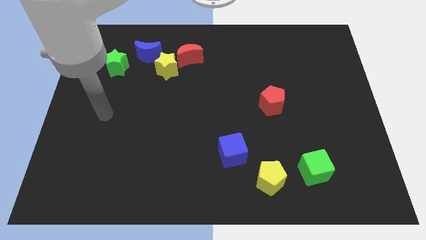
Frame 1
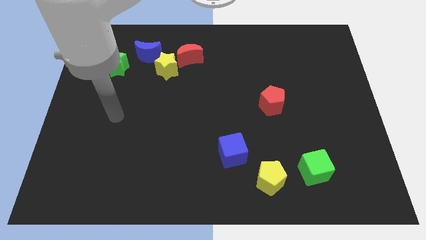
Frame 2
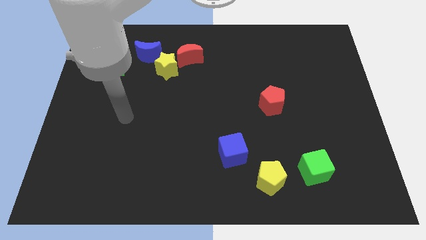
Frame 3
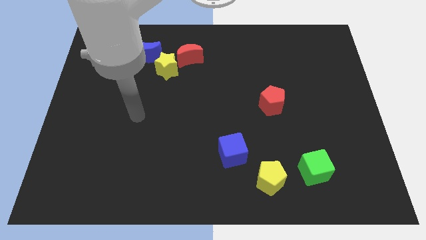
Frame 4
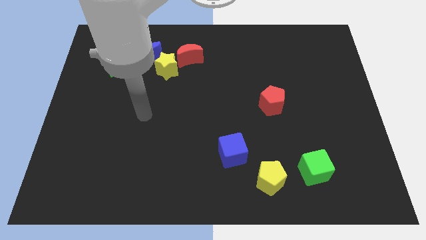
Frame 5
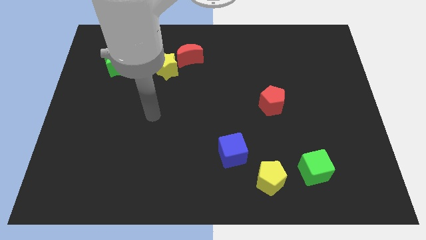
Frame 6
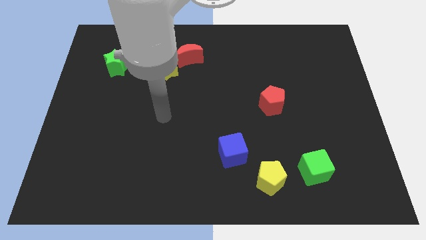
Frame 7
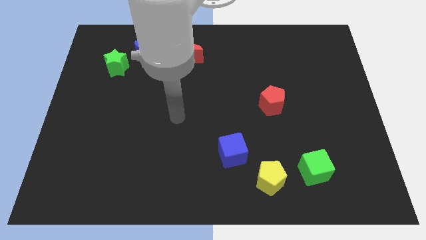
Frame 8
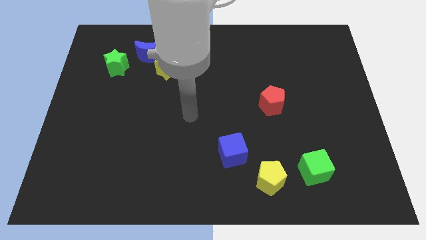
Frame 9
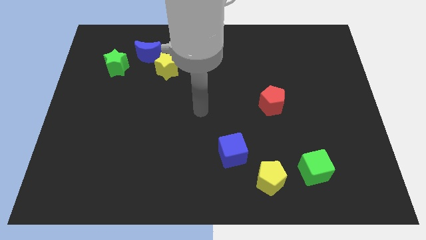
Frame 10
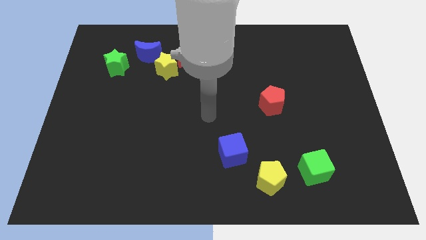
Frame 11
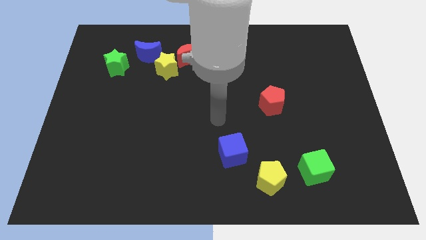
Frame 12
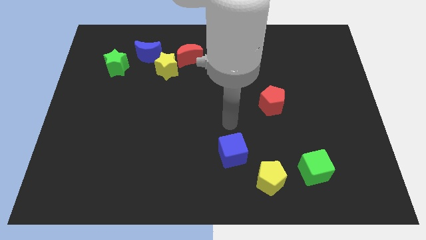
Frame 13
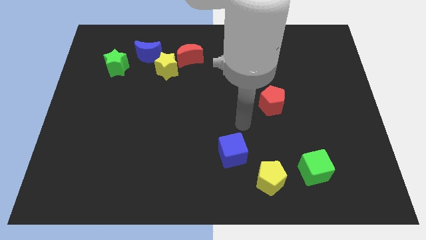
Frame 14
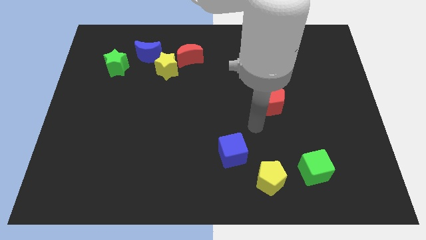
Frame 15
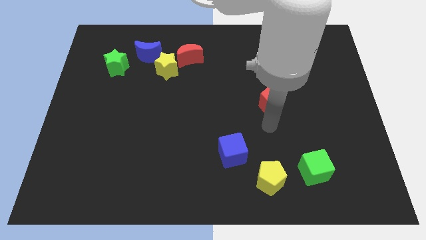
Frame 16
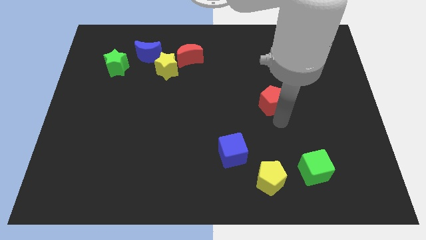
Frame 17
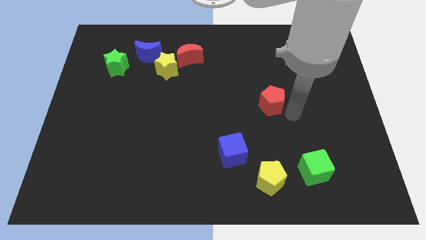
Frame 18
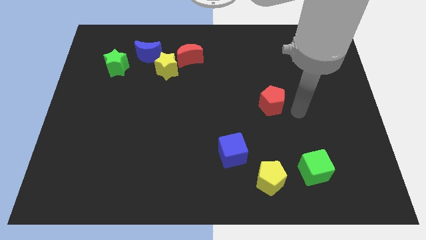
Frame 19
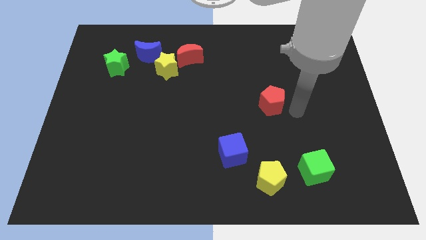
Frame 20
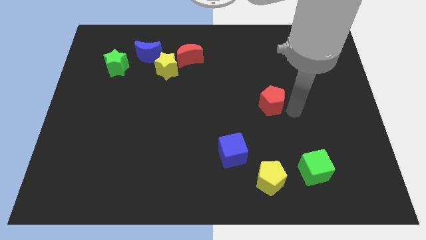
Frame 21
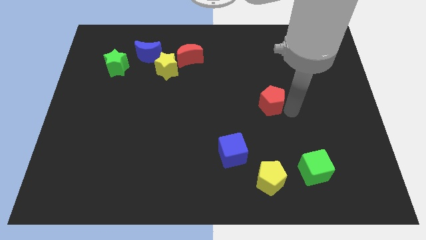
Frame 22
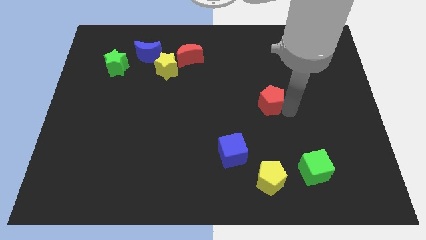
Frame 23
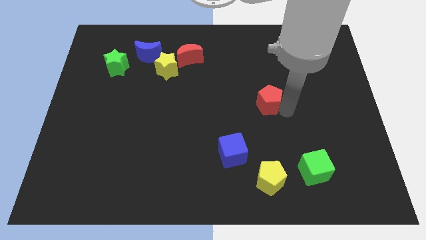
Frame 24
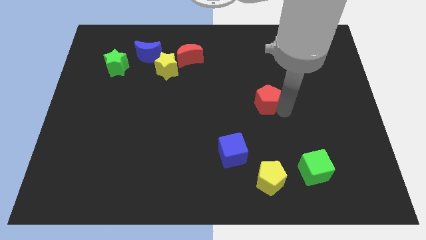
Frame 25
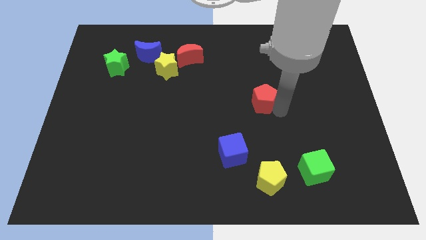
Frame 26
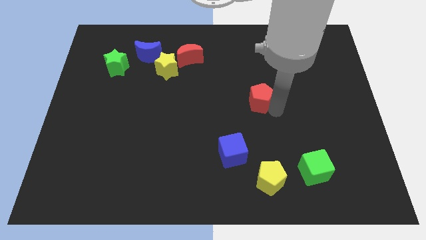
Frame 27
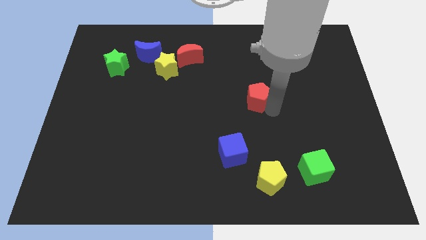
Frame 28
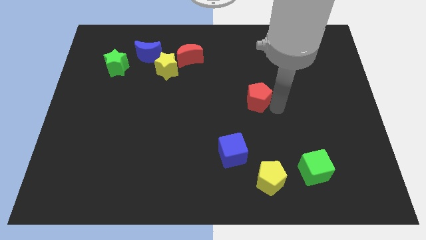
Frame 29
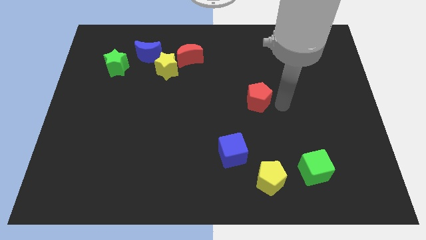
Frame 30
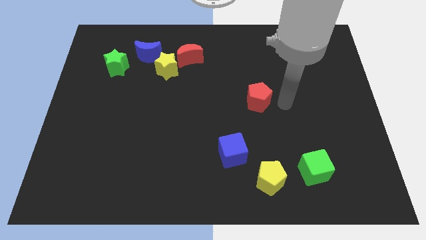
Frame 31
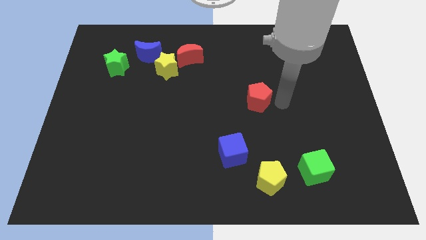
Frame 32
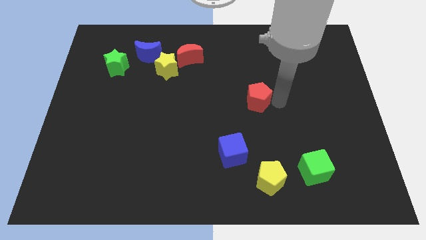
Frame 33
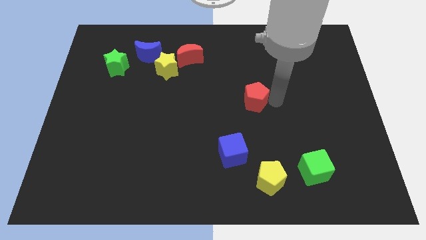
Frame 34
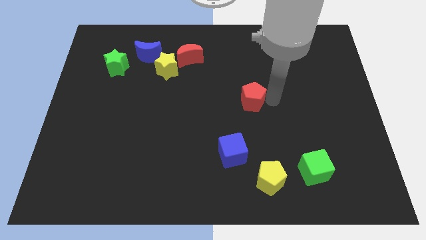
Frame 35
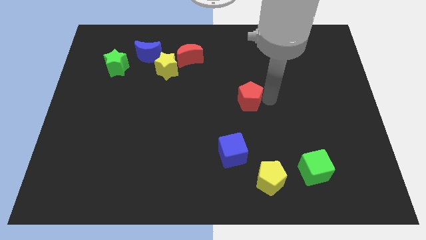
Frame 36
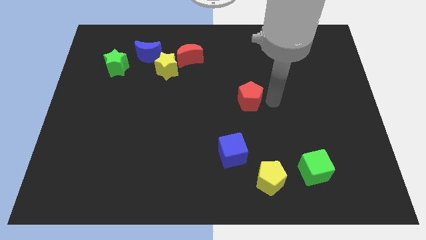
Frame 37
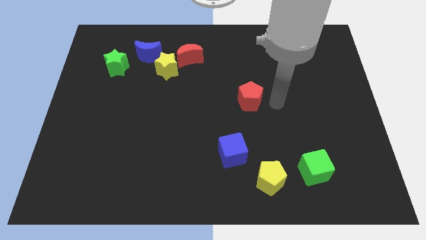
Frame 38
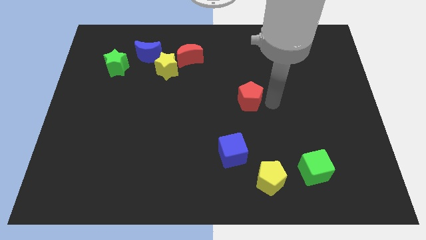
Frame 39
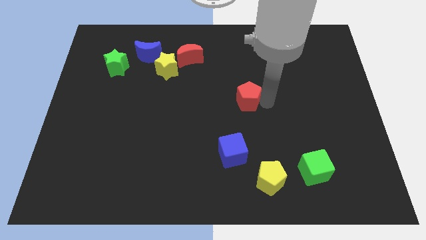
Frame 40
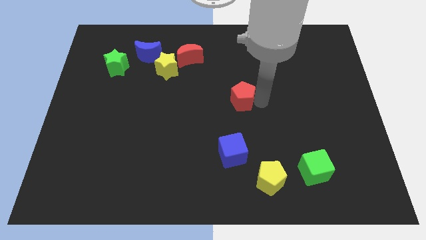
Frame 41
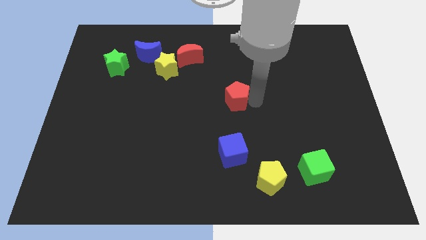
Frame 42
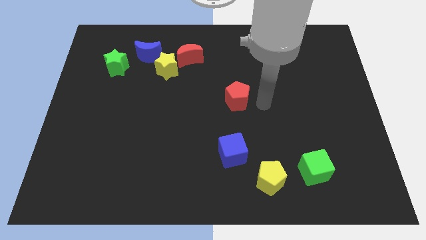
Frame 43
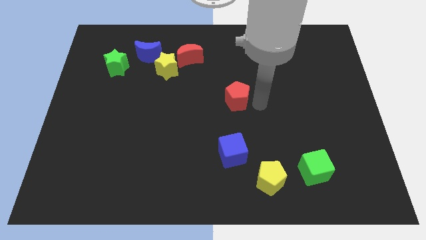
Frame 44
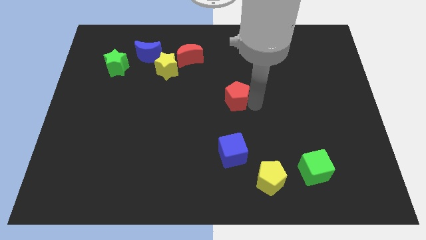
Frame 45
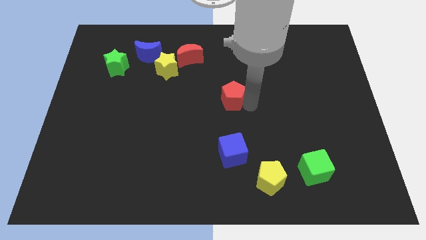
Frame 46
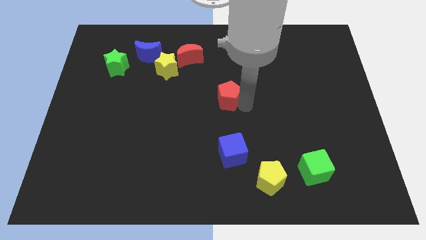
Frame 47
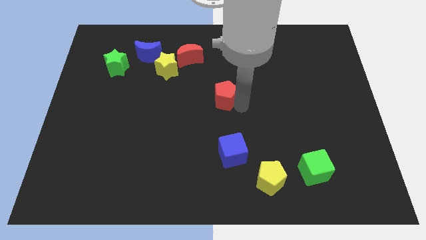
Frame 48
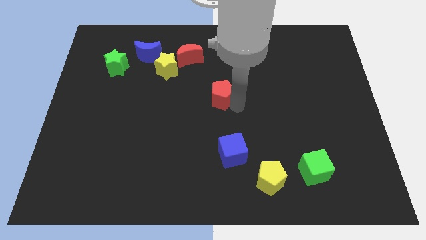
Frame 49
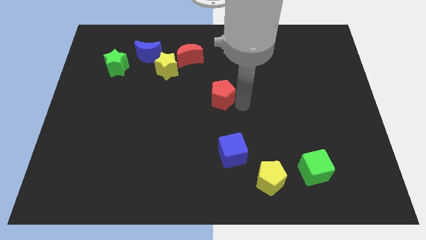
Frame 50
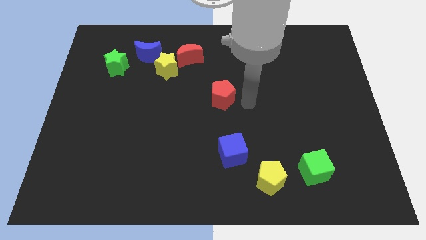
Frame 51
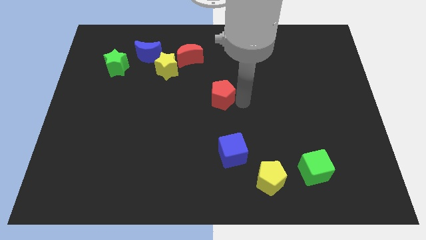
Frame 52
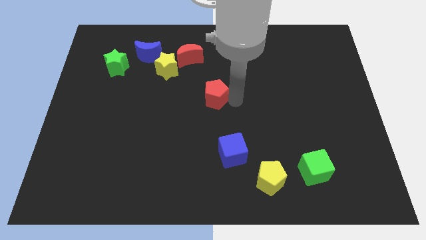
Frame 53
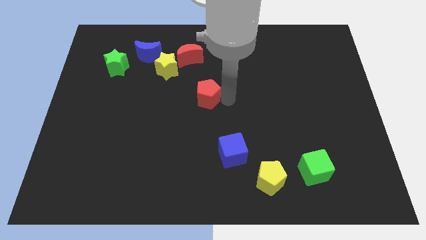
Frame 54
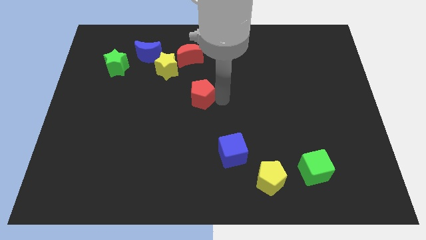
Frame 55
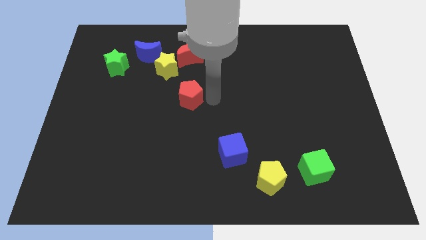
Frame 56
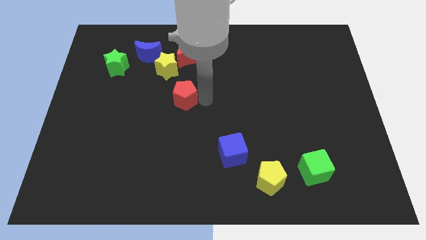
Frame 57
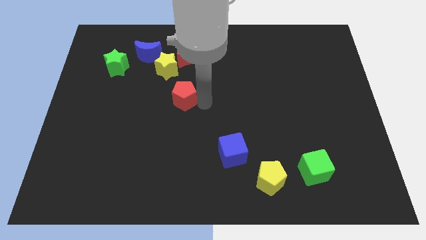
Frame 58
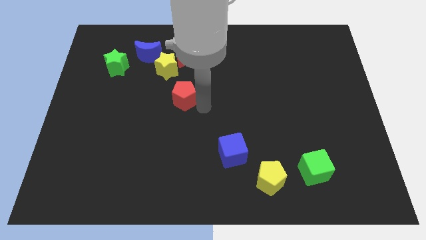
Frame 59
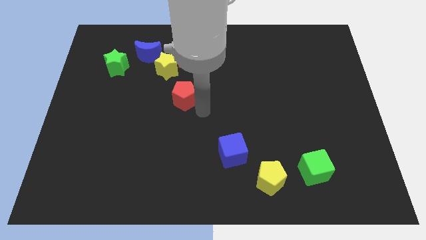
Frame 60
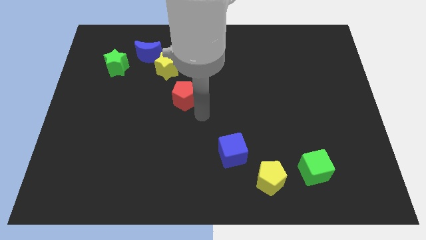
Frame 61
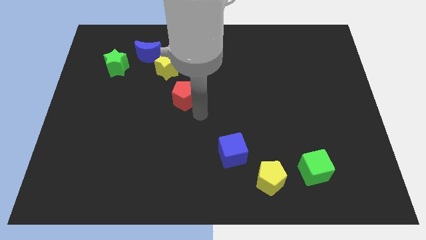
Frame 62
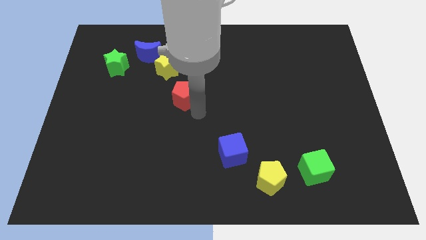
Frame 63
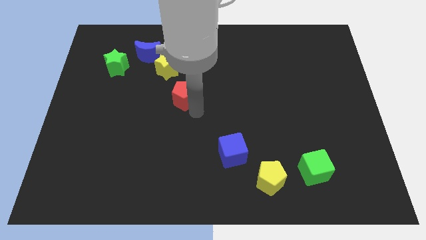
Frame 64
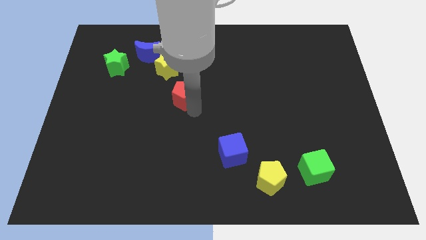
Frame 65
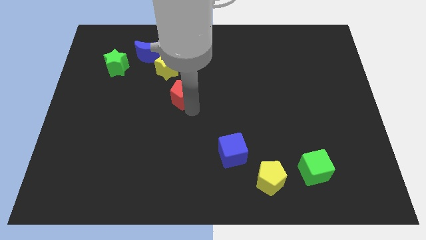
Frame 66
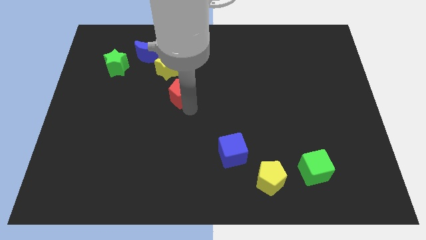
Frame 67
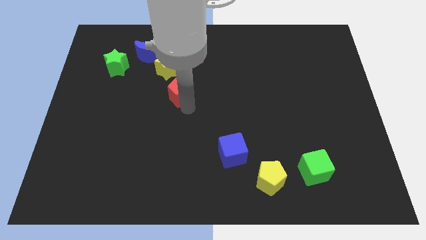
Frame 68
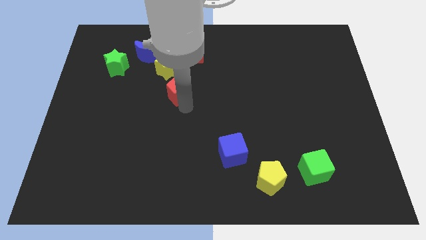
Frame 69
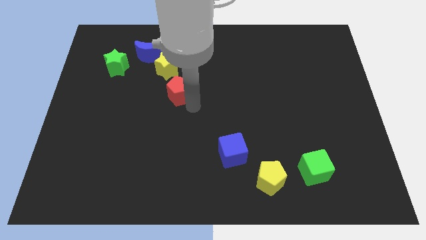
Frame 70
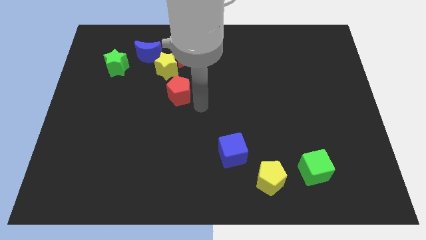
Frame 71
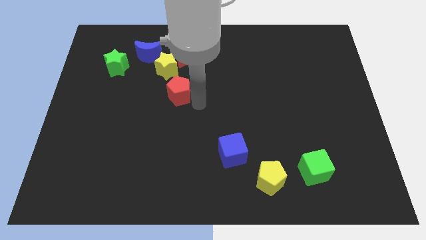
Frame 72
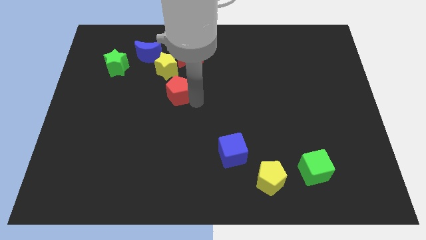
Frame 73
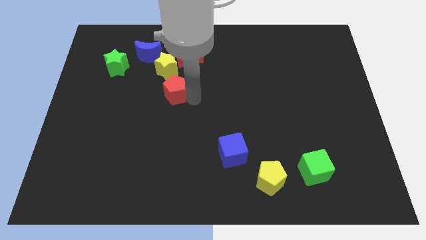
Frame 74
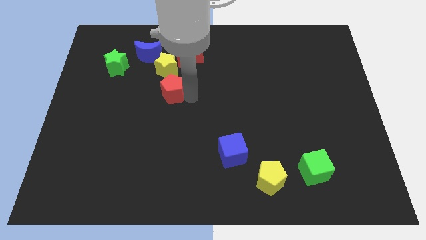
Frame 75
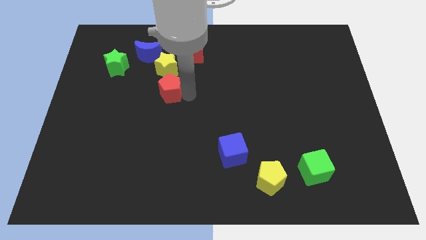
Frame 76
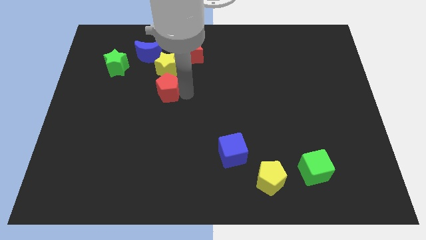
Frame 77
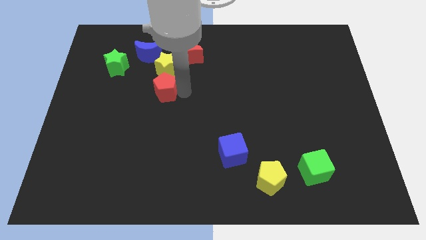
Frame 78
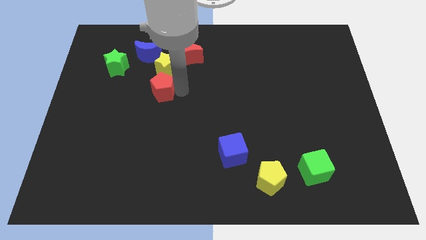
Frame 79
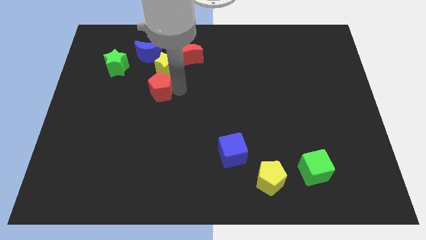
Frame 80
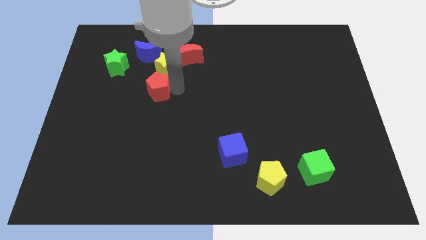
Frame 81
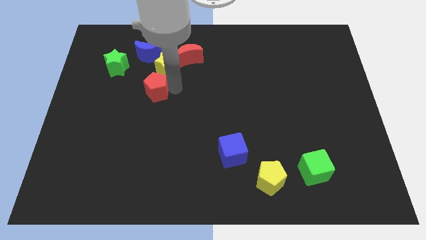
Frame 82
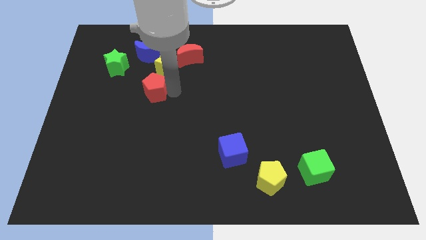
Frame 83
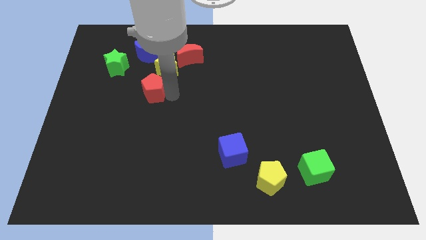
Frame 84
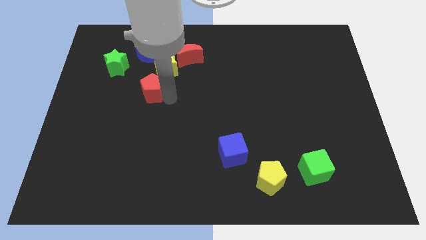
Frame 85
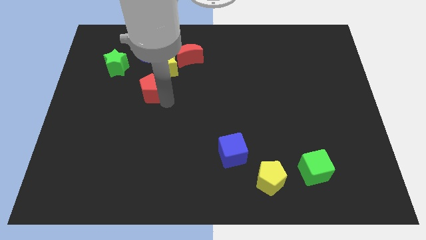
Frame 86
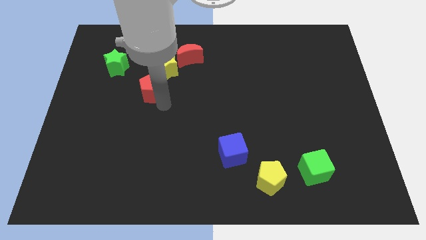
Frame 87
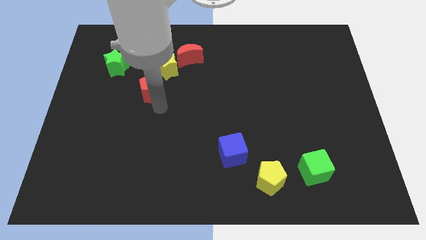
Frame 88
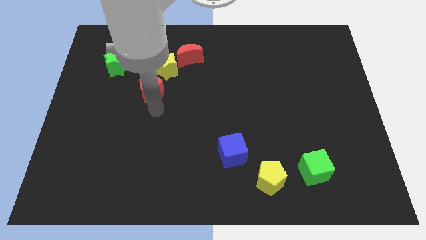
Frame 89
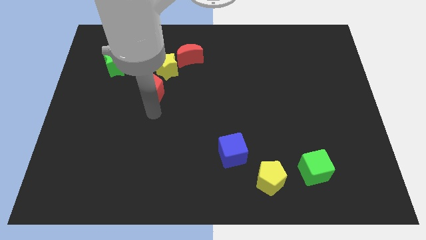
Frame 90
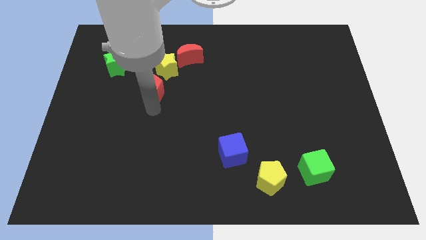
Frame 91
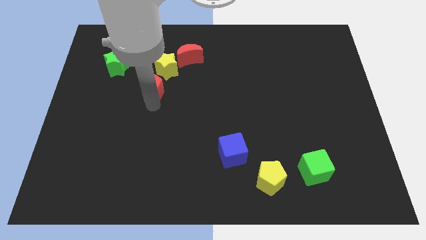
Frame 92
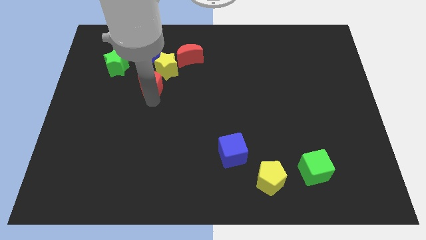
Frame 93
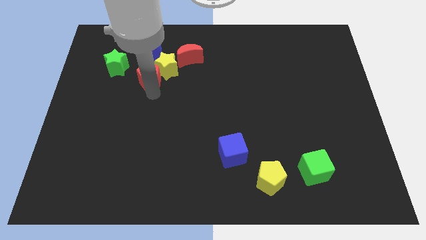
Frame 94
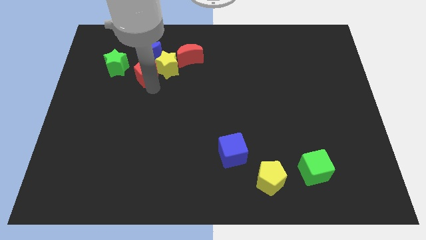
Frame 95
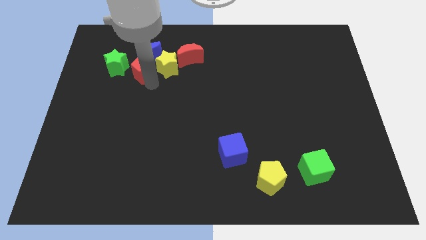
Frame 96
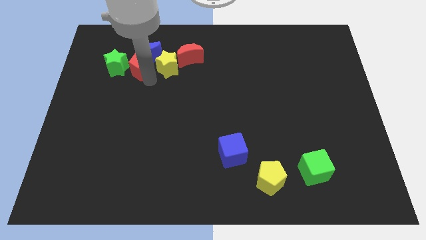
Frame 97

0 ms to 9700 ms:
move the red pentagon left of the red moon
